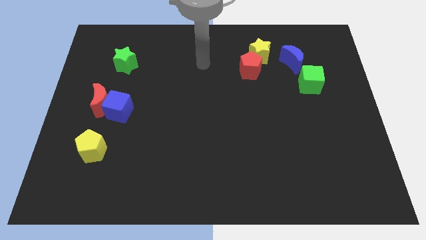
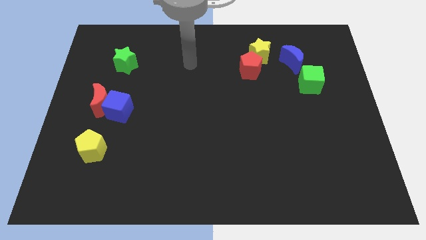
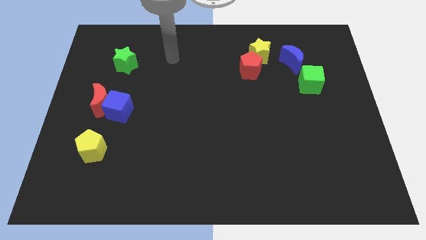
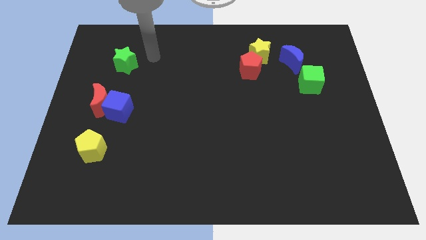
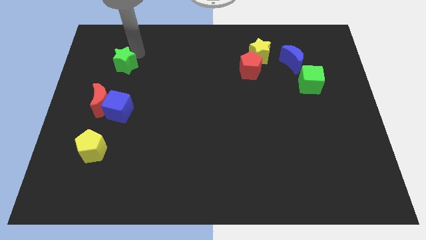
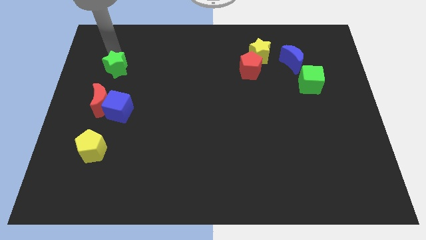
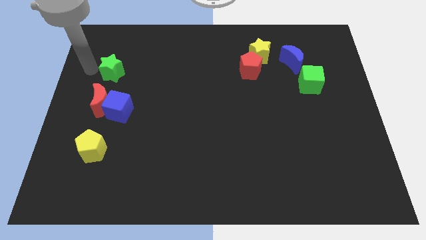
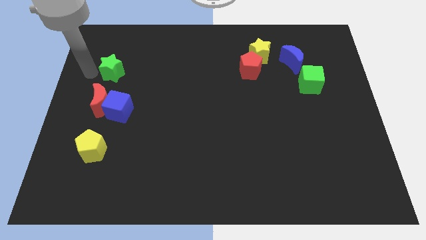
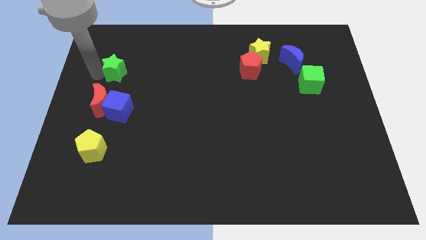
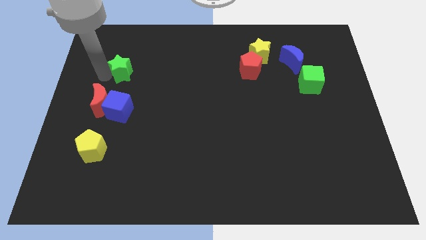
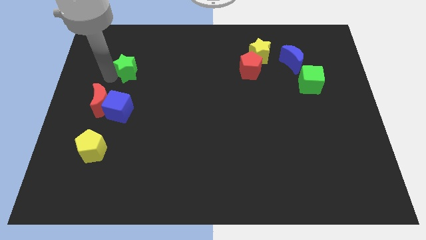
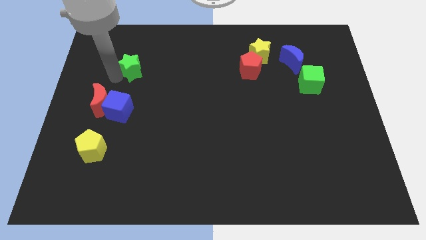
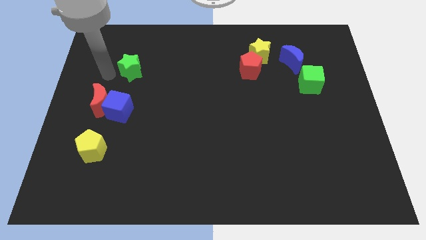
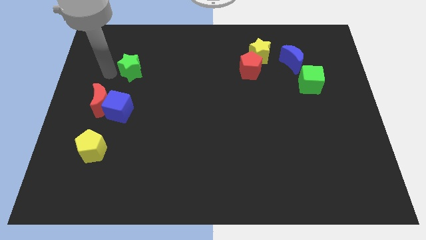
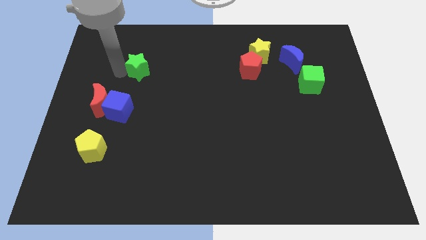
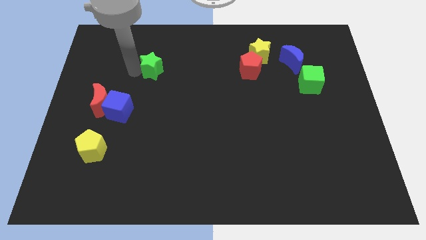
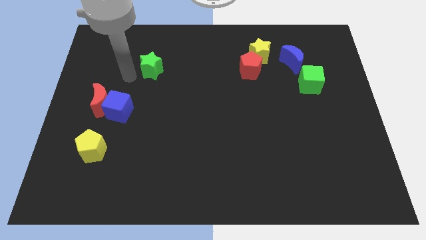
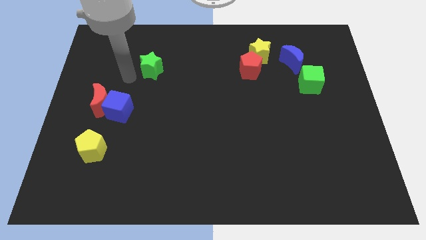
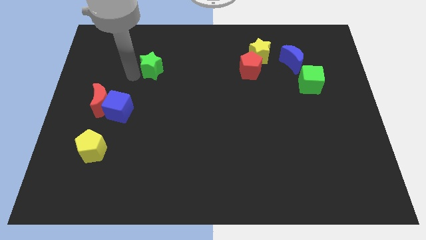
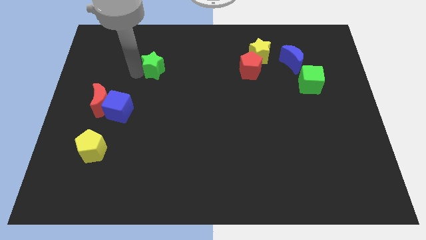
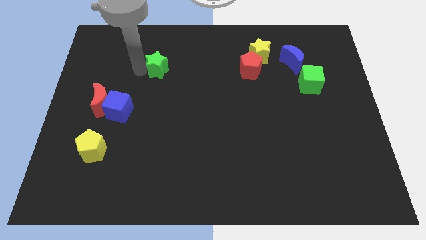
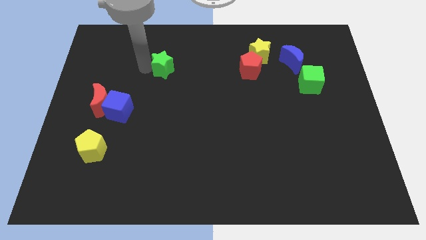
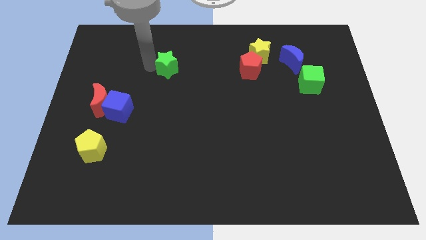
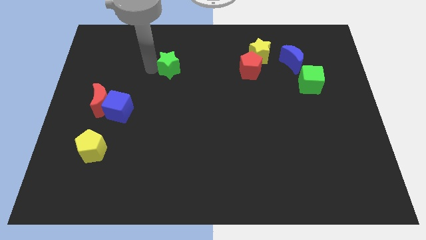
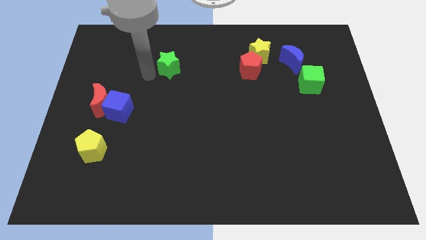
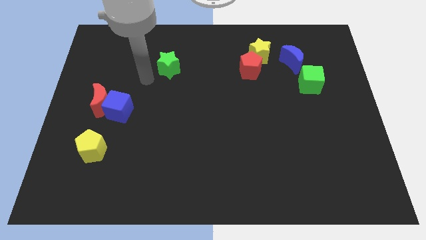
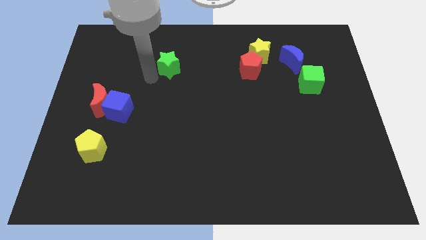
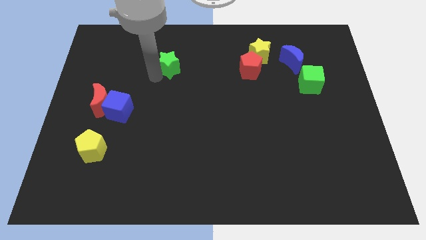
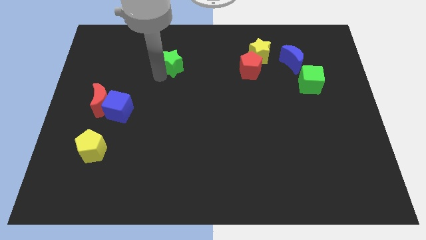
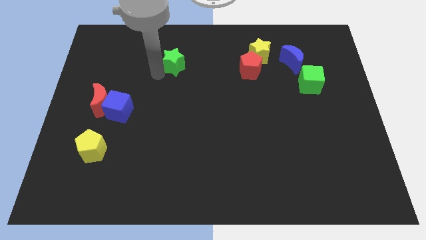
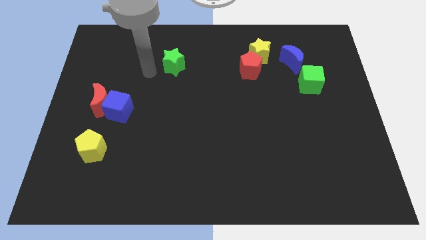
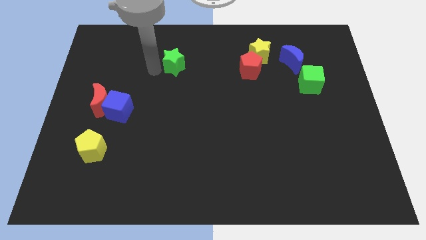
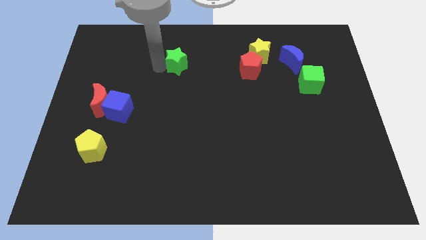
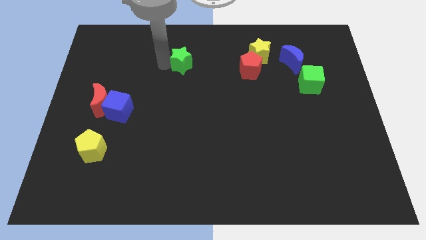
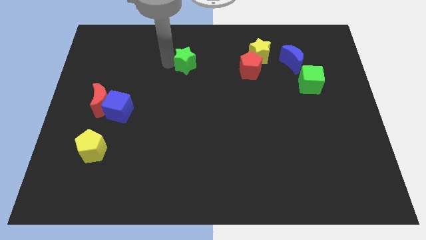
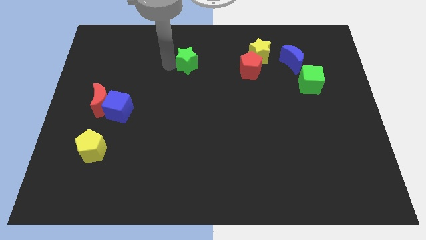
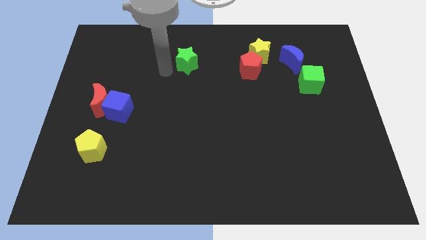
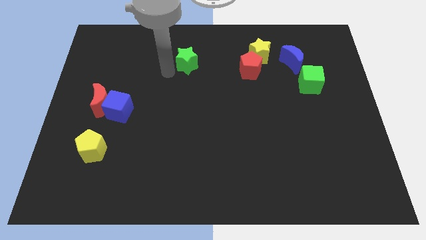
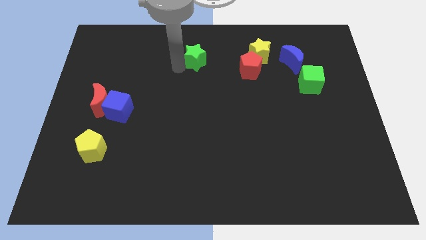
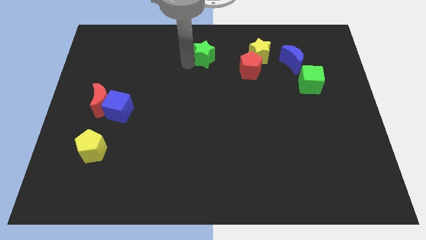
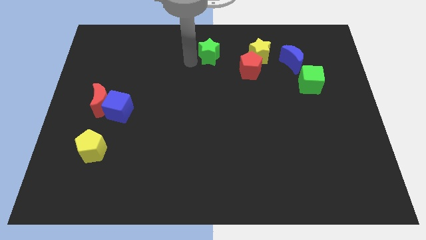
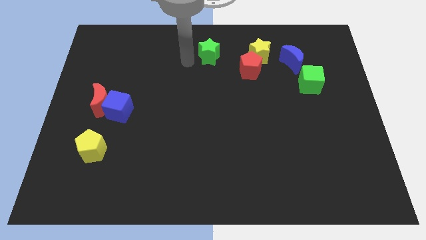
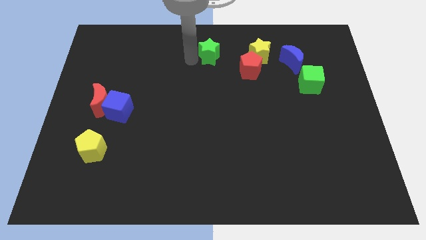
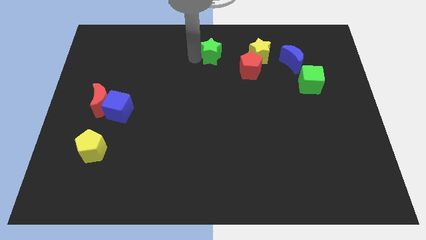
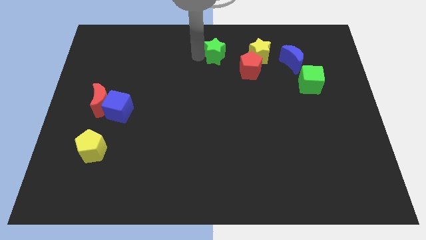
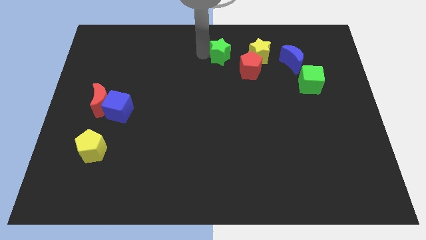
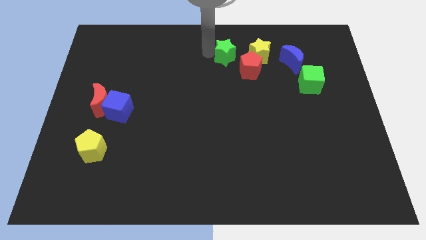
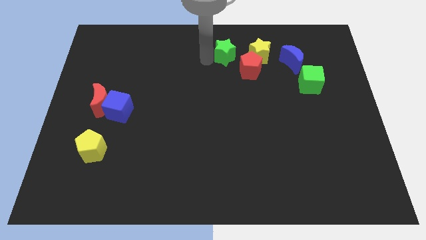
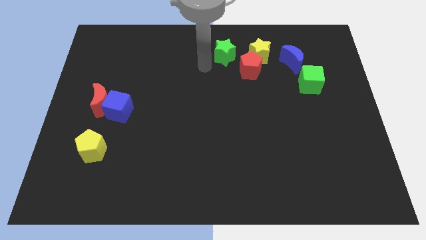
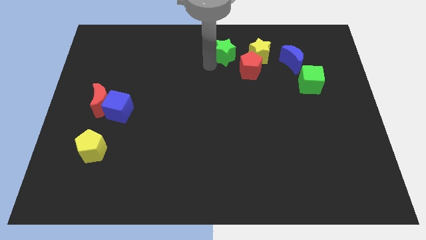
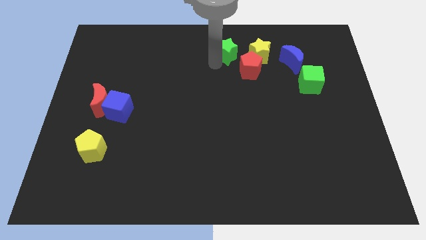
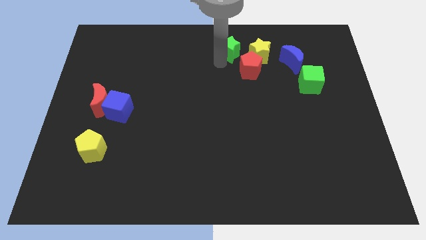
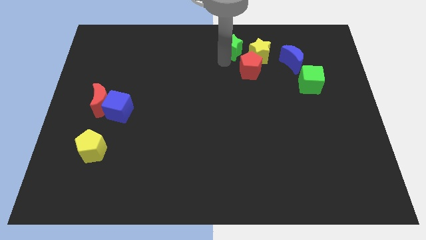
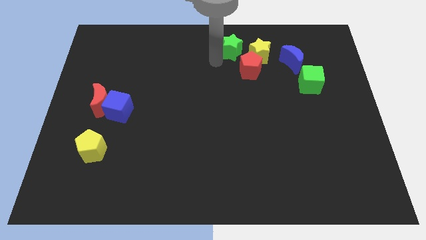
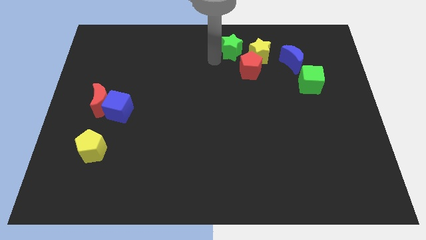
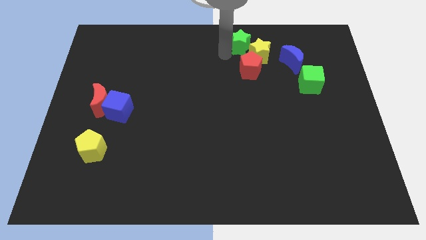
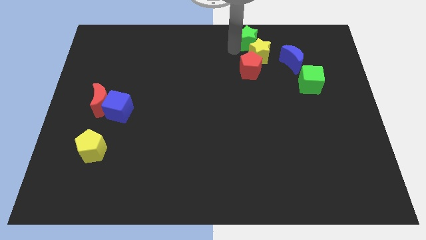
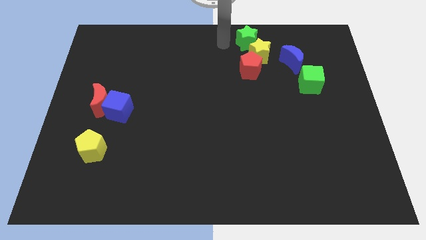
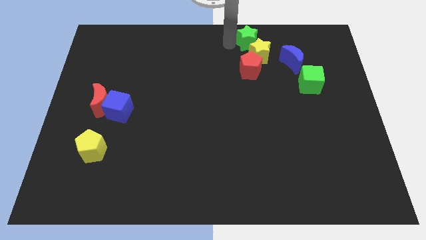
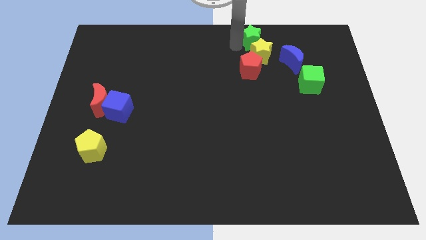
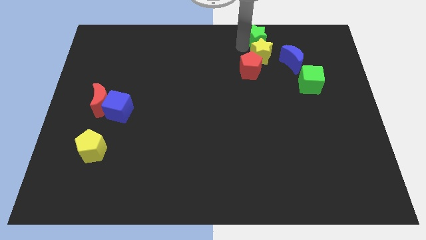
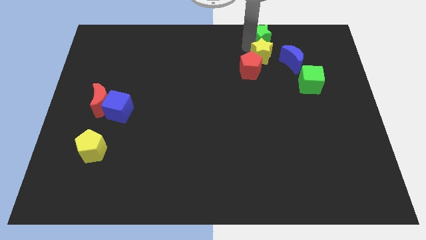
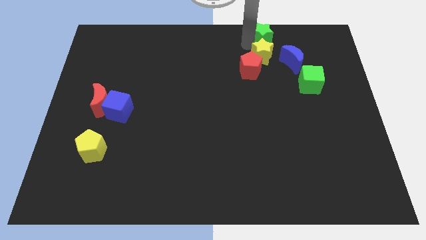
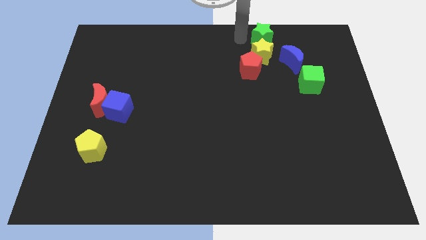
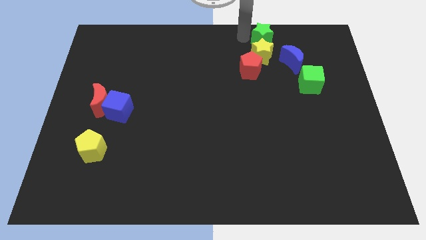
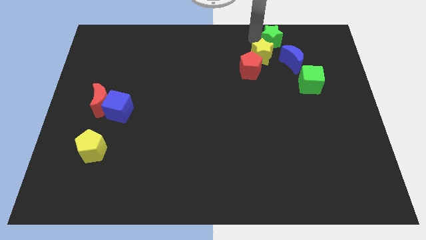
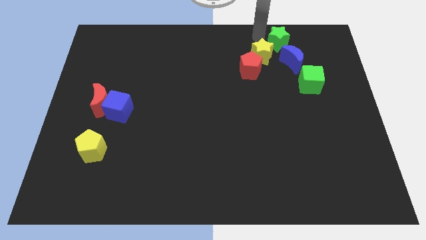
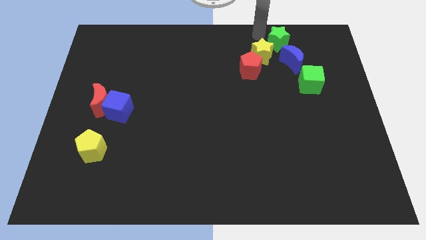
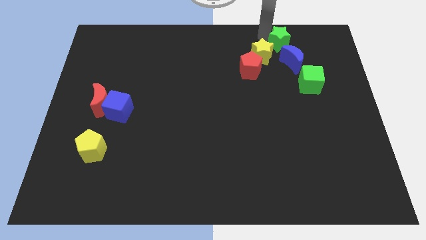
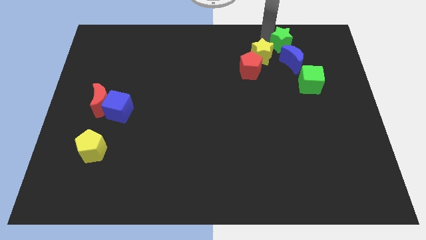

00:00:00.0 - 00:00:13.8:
slide the green star to the right side of the yellow star
